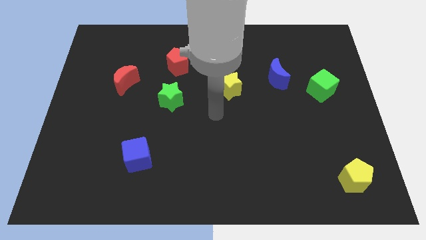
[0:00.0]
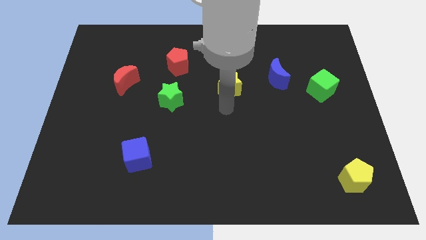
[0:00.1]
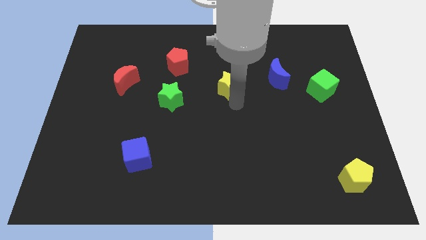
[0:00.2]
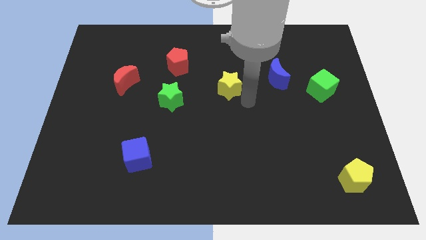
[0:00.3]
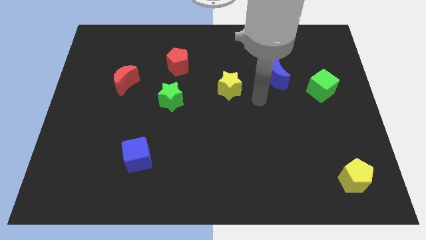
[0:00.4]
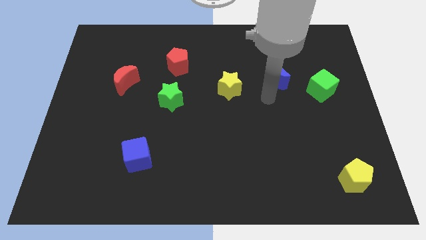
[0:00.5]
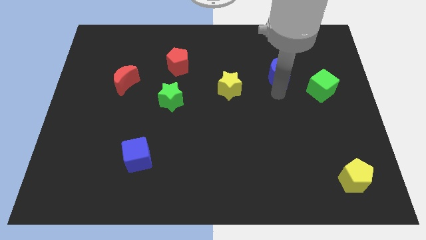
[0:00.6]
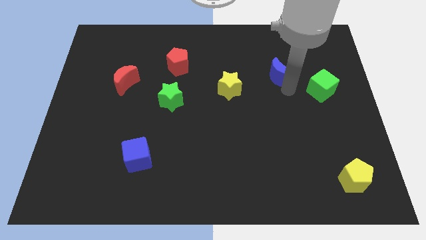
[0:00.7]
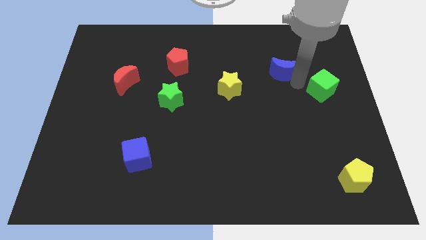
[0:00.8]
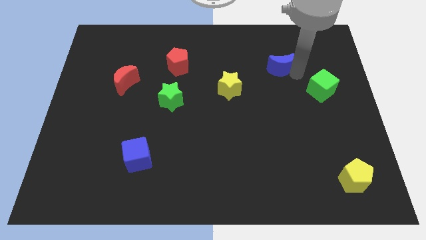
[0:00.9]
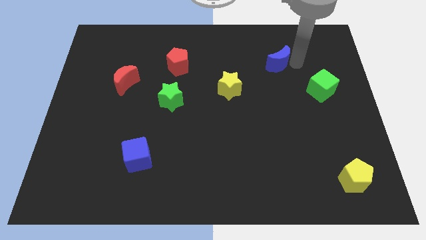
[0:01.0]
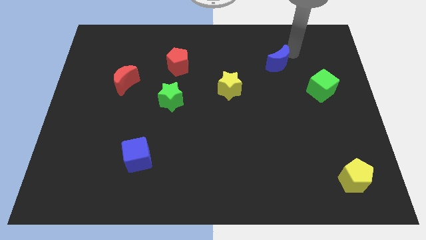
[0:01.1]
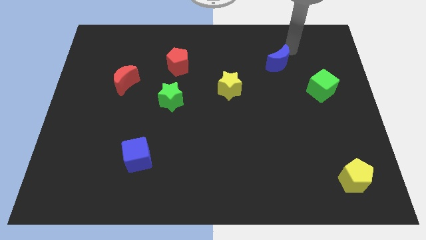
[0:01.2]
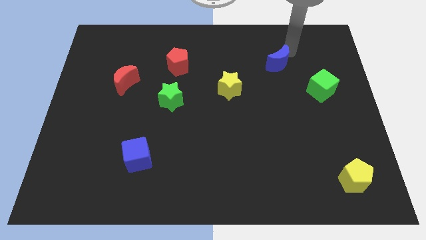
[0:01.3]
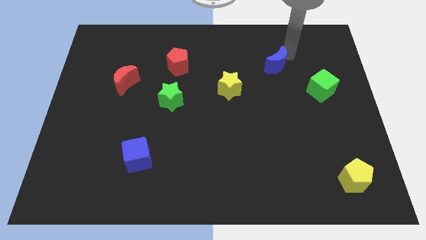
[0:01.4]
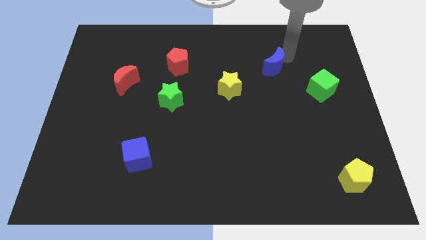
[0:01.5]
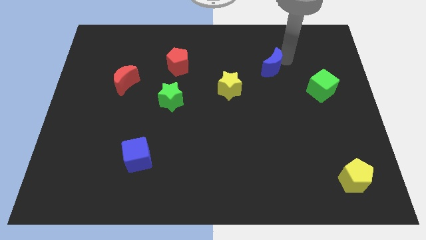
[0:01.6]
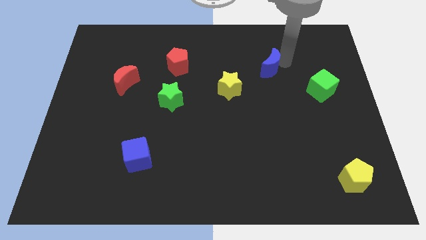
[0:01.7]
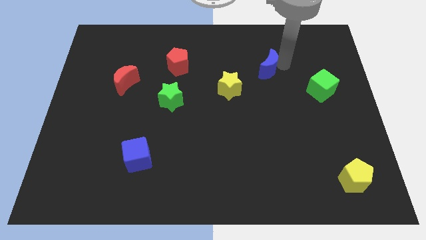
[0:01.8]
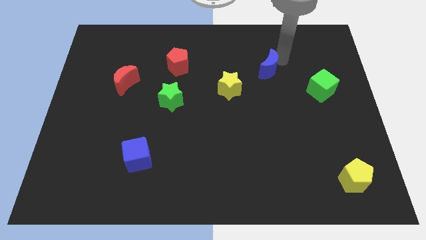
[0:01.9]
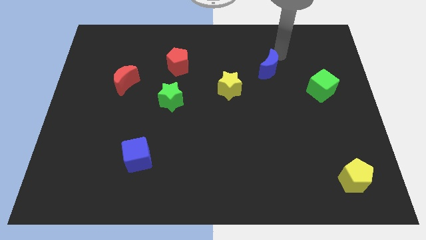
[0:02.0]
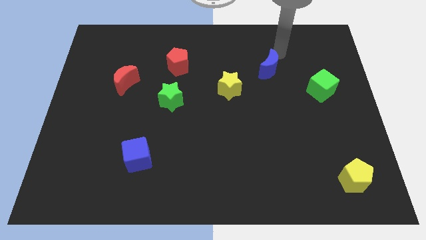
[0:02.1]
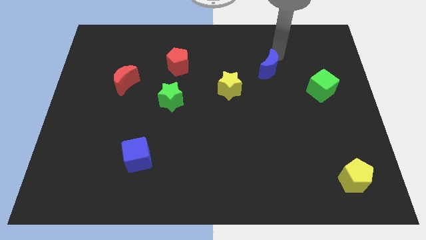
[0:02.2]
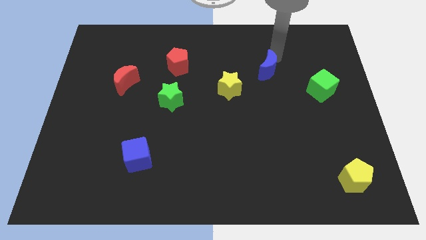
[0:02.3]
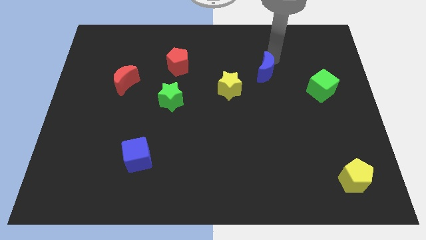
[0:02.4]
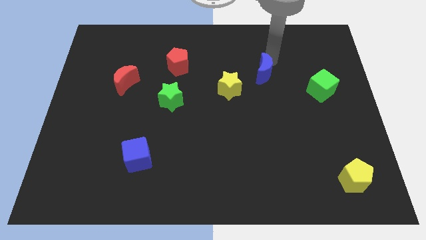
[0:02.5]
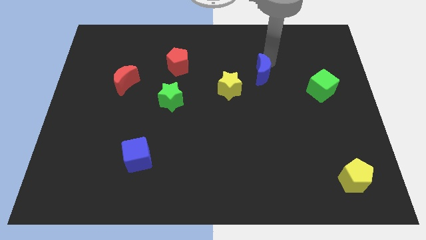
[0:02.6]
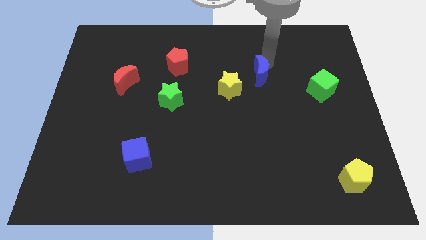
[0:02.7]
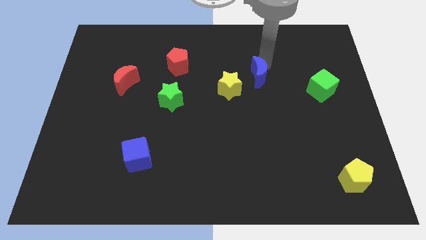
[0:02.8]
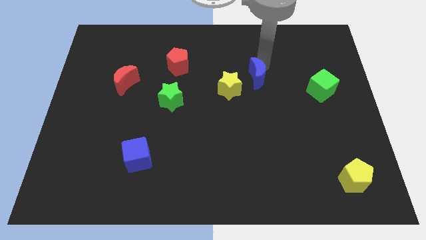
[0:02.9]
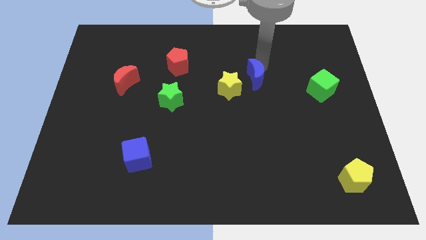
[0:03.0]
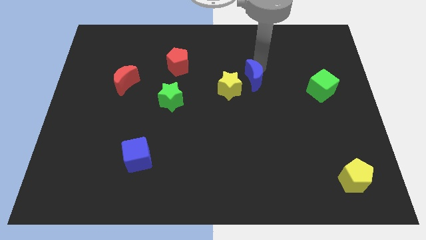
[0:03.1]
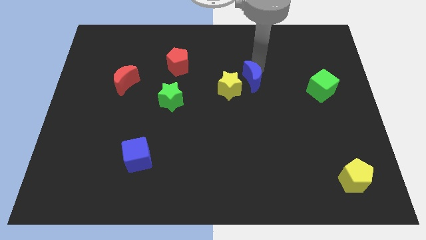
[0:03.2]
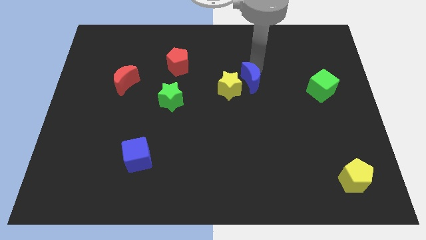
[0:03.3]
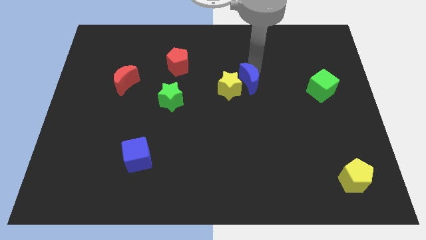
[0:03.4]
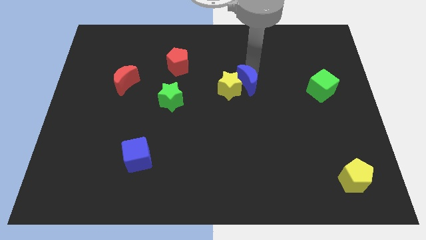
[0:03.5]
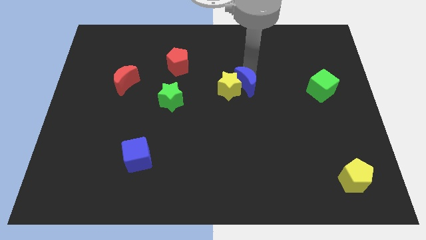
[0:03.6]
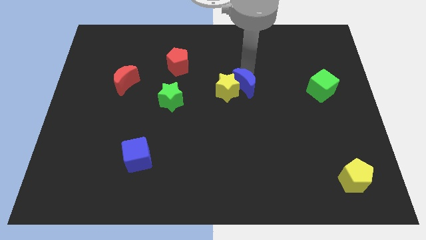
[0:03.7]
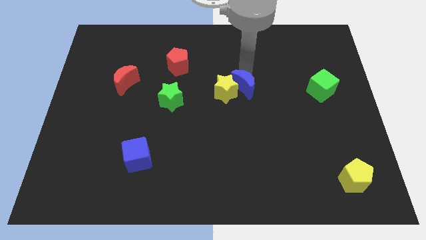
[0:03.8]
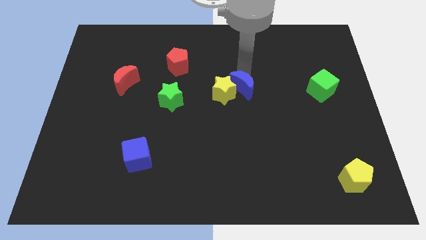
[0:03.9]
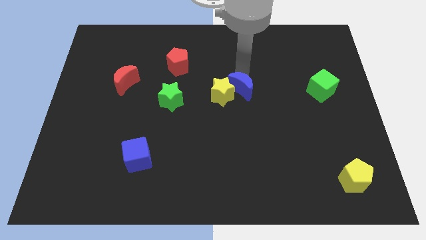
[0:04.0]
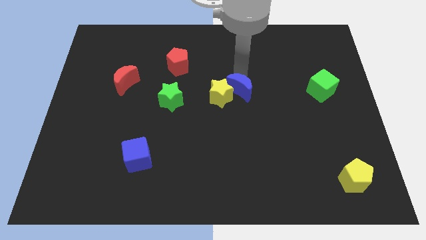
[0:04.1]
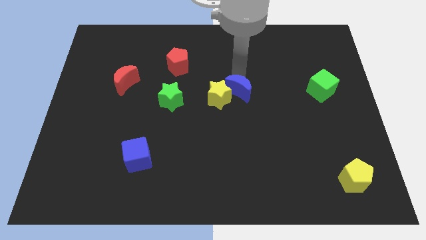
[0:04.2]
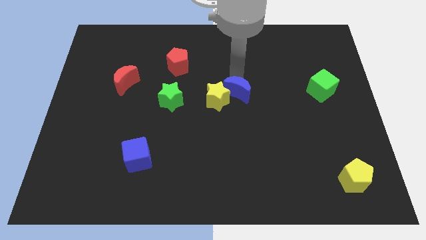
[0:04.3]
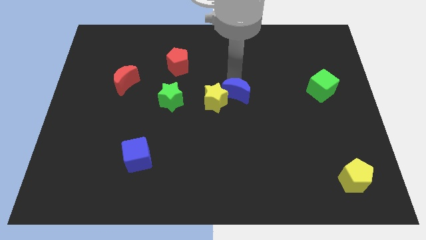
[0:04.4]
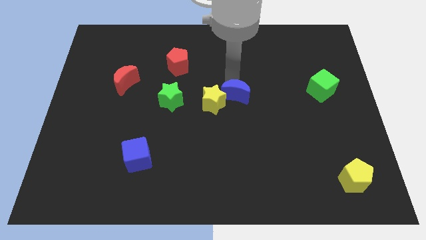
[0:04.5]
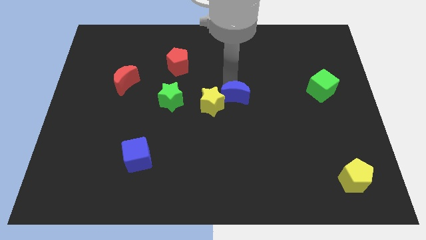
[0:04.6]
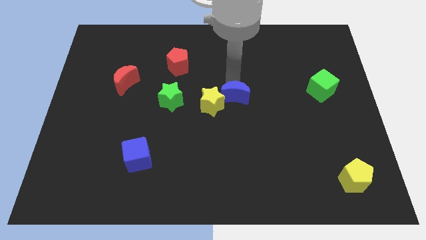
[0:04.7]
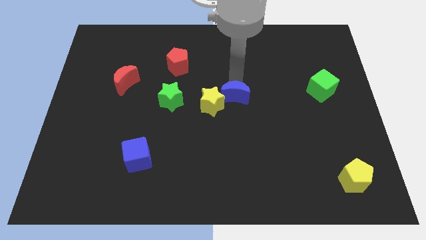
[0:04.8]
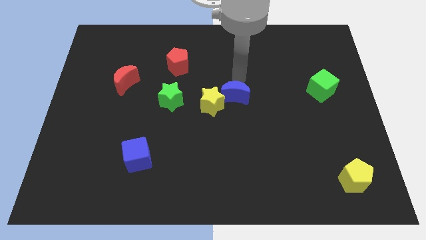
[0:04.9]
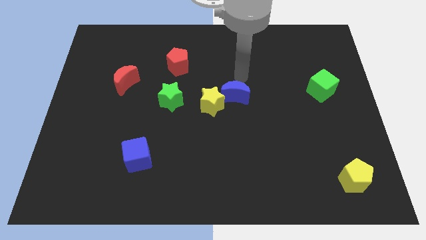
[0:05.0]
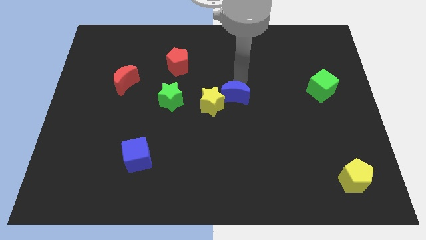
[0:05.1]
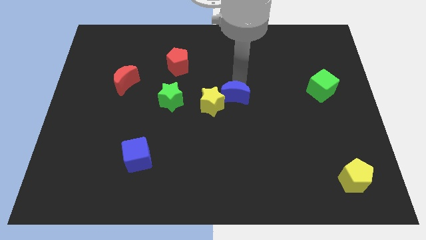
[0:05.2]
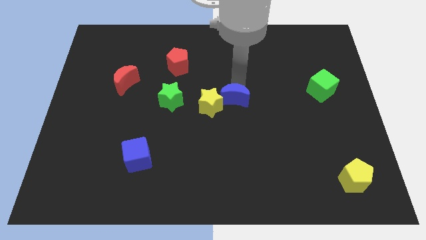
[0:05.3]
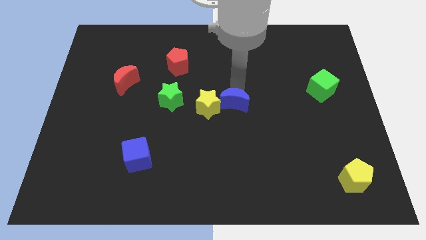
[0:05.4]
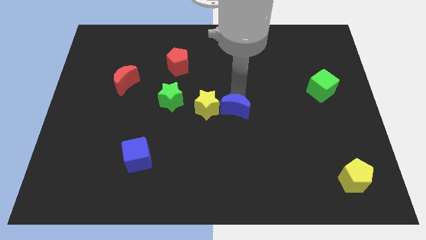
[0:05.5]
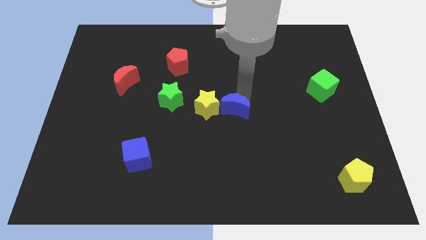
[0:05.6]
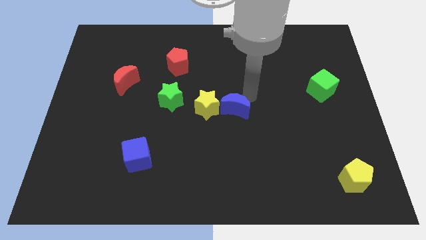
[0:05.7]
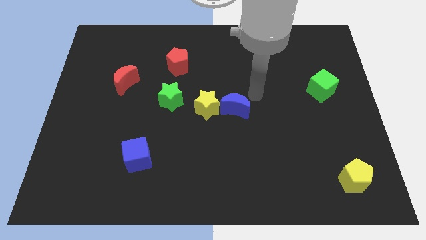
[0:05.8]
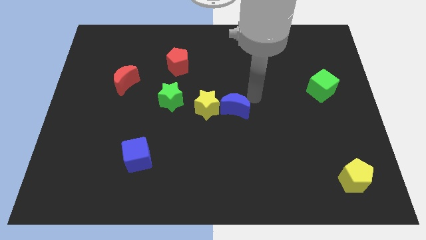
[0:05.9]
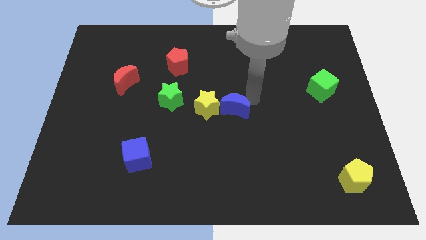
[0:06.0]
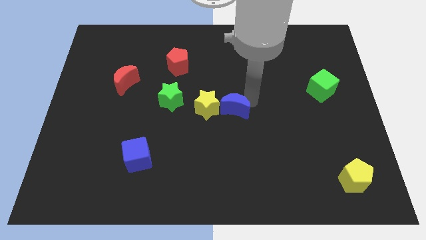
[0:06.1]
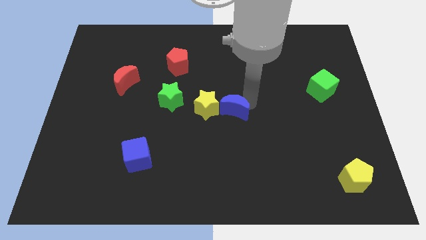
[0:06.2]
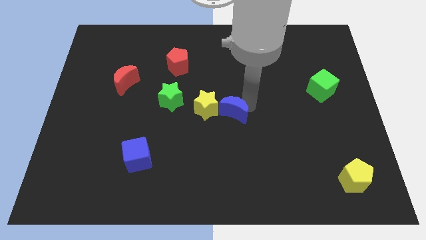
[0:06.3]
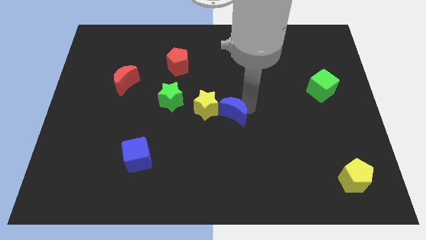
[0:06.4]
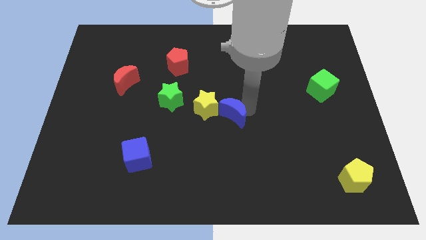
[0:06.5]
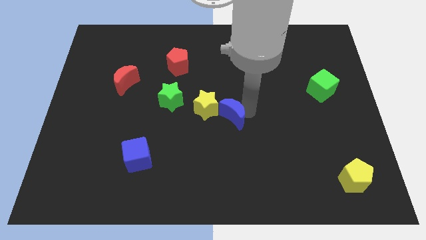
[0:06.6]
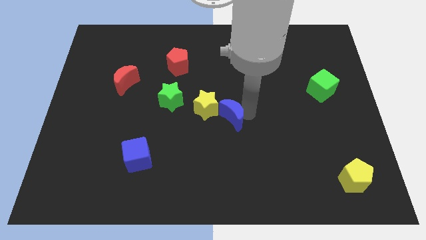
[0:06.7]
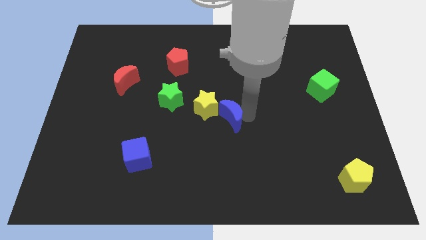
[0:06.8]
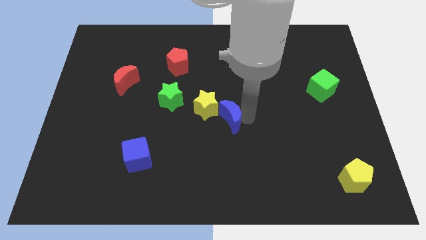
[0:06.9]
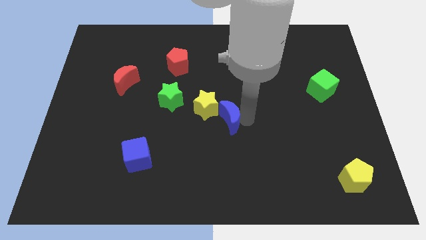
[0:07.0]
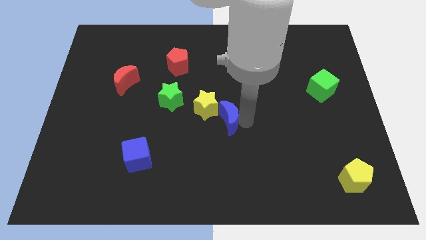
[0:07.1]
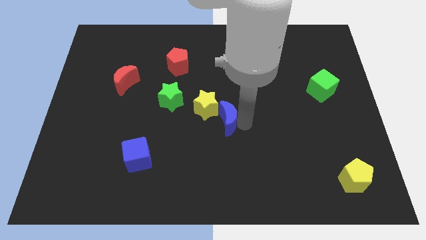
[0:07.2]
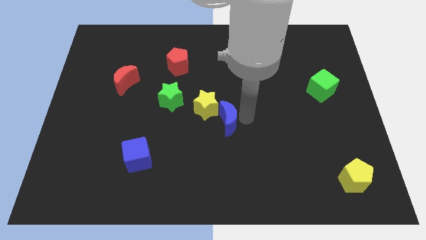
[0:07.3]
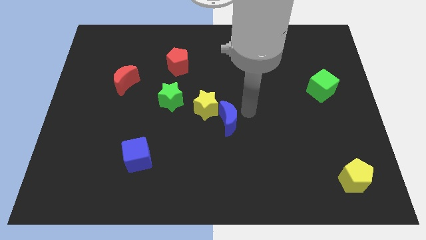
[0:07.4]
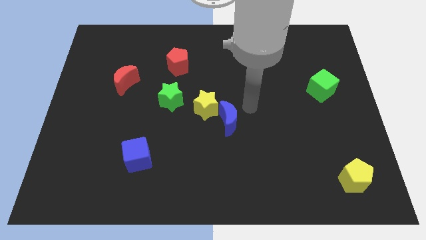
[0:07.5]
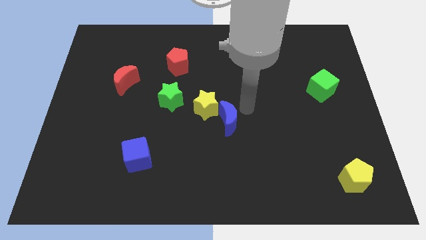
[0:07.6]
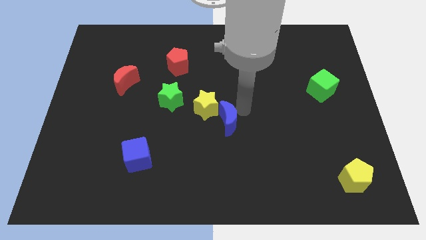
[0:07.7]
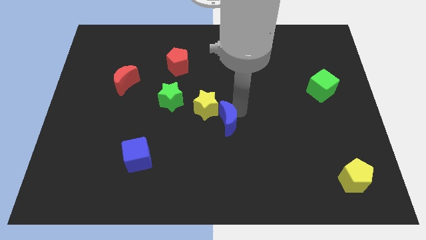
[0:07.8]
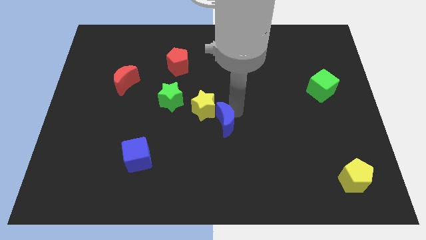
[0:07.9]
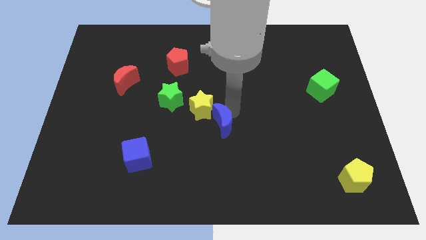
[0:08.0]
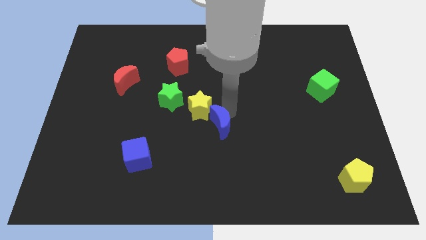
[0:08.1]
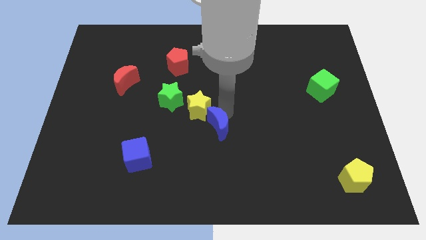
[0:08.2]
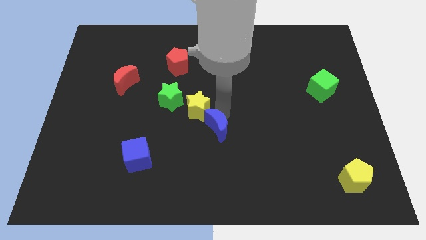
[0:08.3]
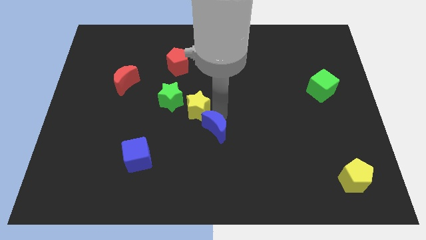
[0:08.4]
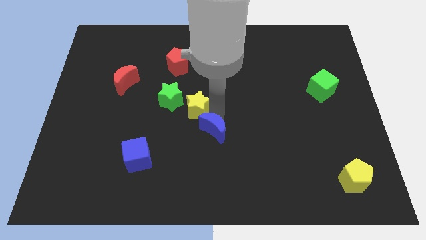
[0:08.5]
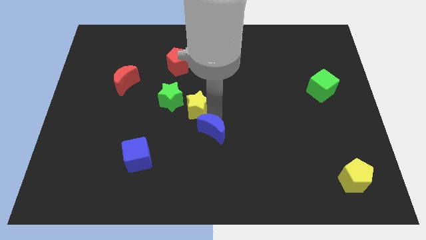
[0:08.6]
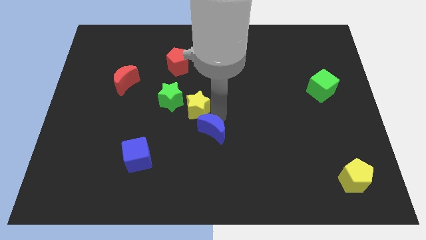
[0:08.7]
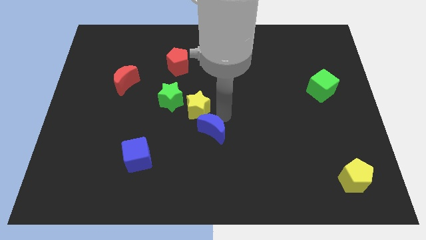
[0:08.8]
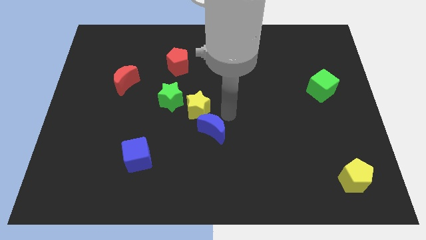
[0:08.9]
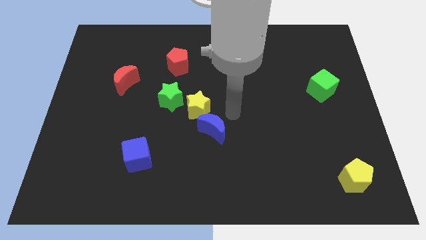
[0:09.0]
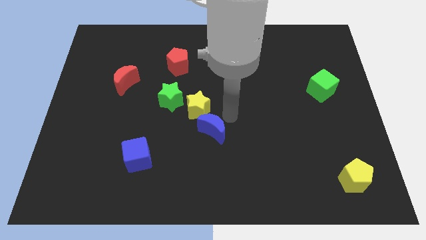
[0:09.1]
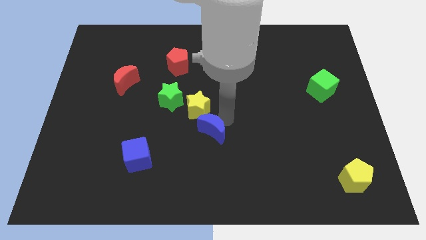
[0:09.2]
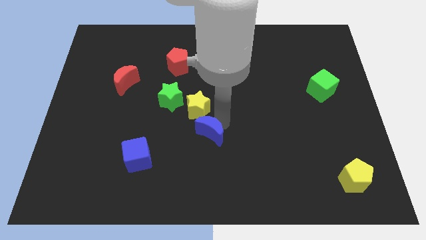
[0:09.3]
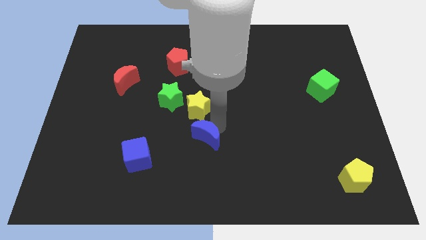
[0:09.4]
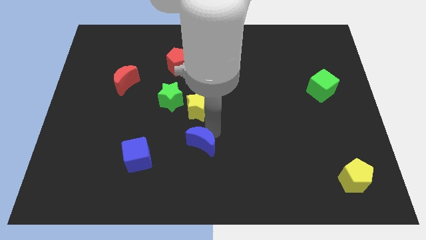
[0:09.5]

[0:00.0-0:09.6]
put the blue moon just right of the blue cube
